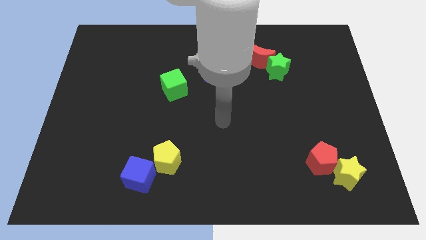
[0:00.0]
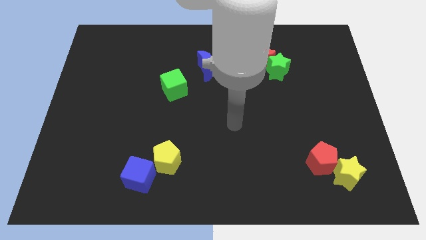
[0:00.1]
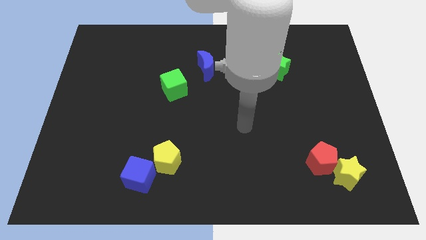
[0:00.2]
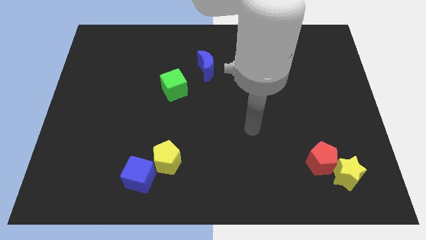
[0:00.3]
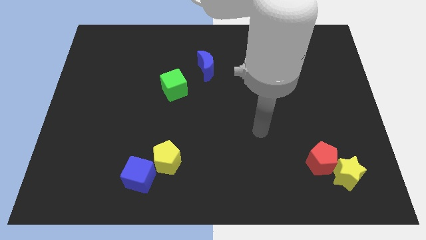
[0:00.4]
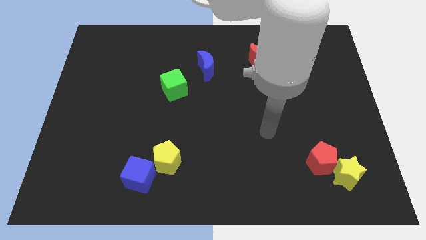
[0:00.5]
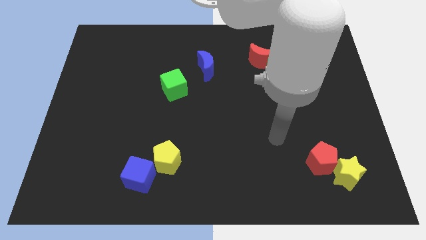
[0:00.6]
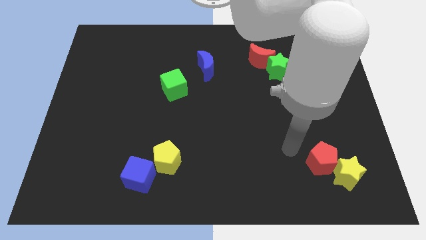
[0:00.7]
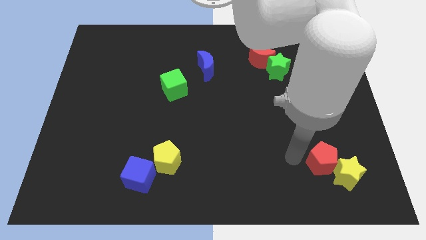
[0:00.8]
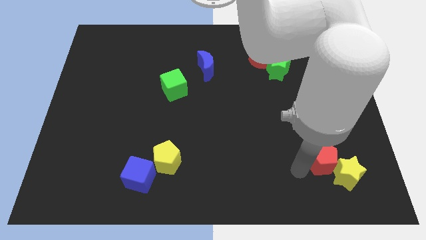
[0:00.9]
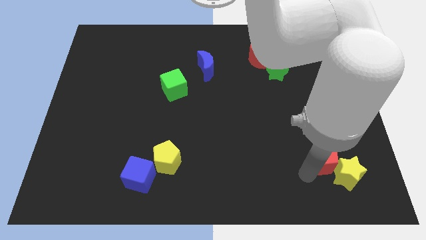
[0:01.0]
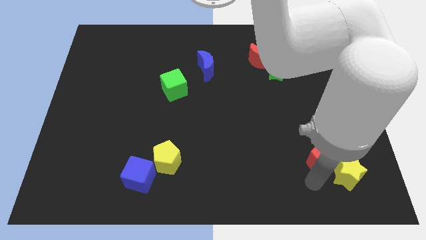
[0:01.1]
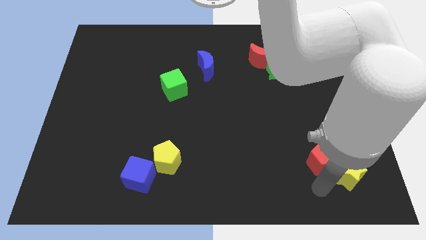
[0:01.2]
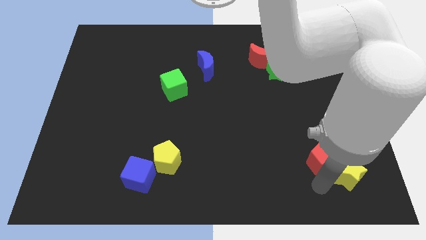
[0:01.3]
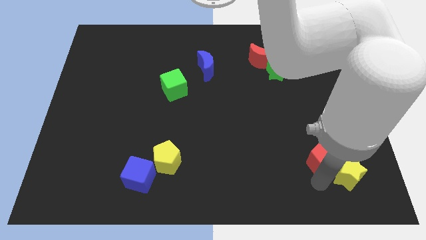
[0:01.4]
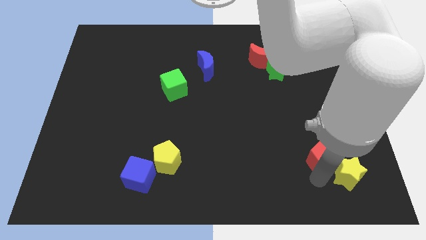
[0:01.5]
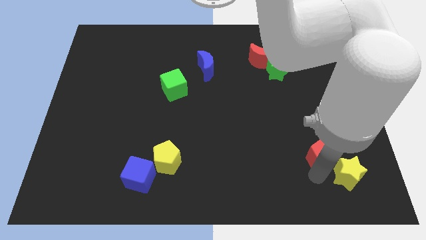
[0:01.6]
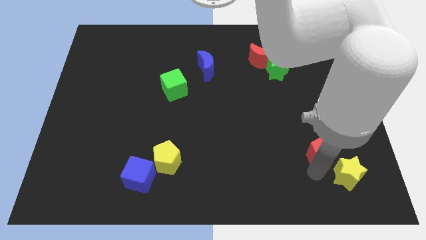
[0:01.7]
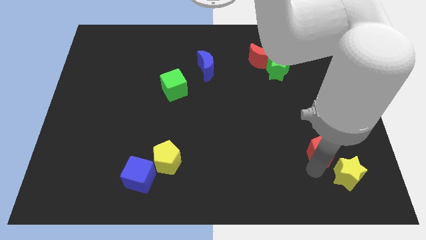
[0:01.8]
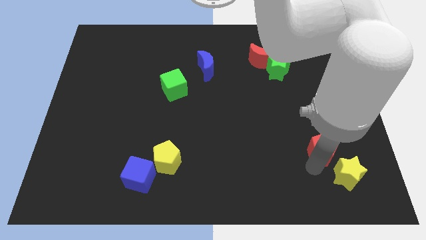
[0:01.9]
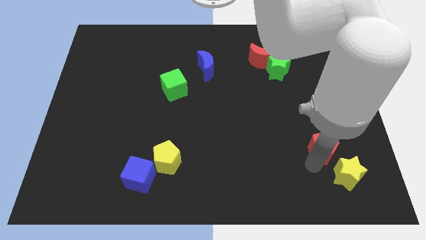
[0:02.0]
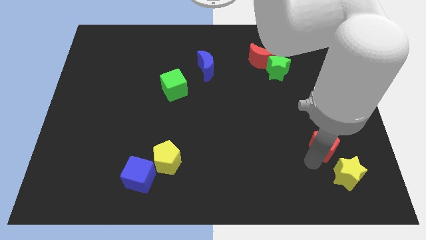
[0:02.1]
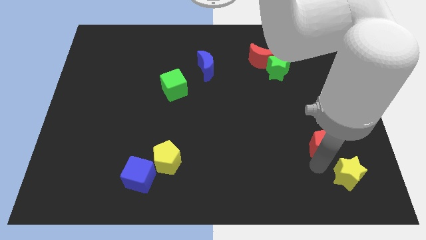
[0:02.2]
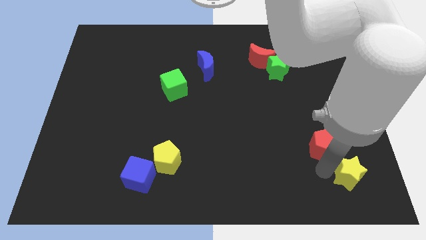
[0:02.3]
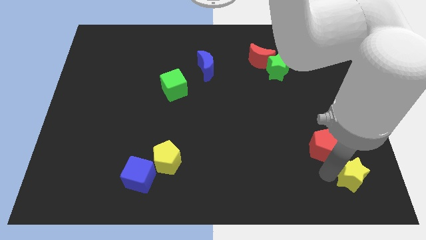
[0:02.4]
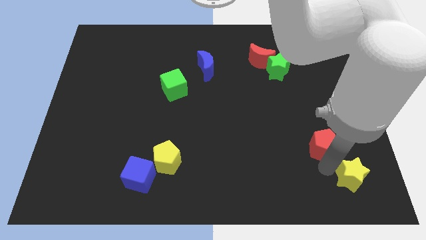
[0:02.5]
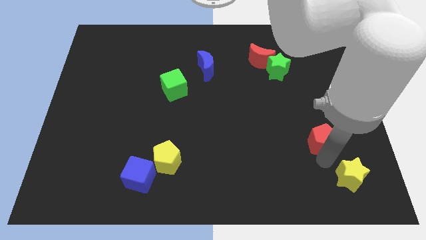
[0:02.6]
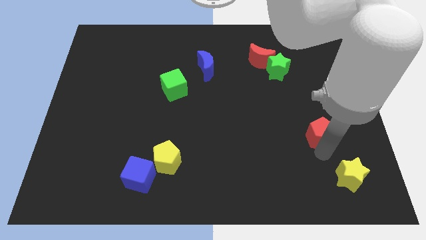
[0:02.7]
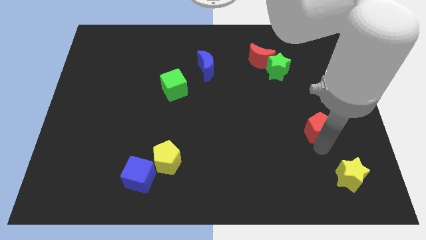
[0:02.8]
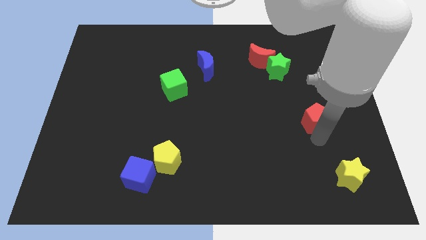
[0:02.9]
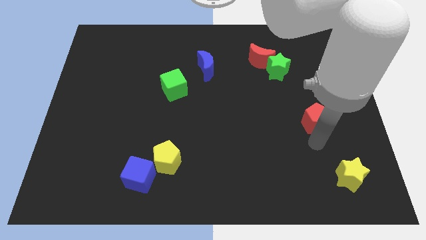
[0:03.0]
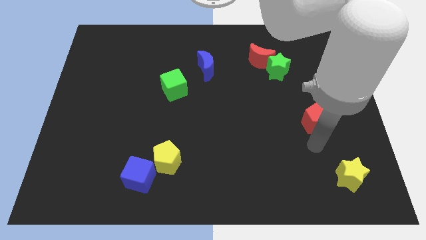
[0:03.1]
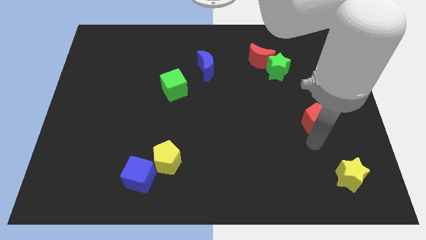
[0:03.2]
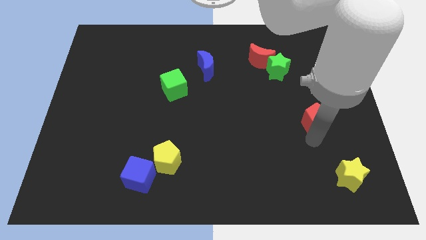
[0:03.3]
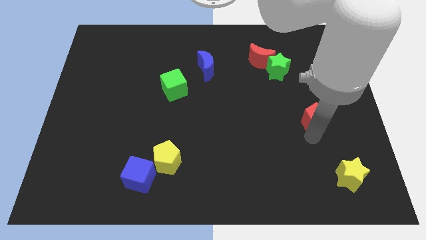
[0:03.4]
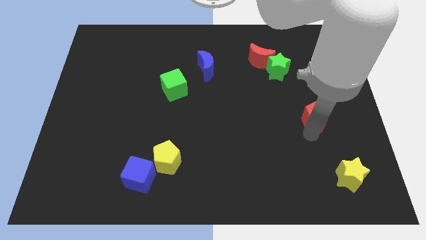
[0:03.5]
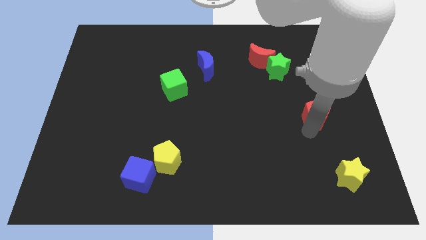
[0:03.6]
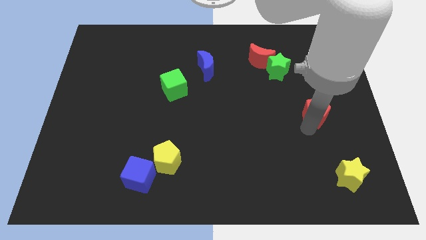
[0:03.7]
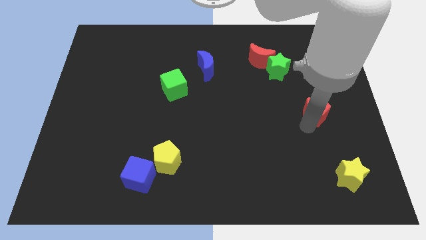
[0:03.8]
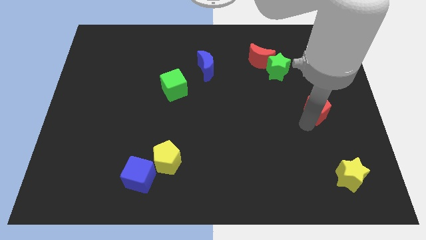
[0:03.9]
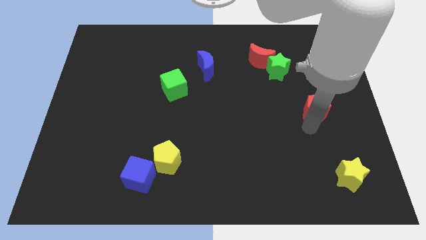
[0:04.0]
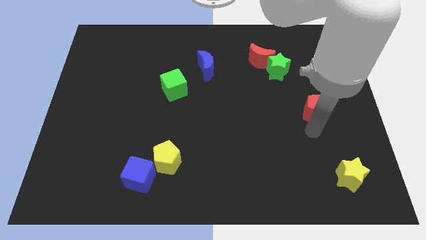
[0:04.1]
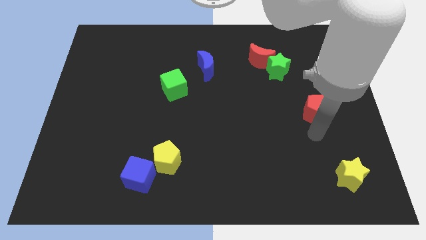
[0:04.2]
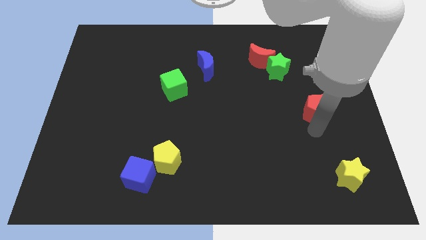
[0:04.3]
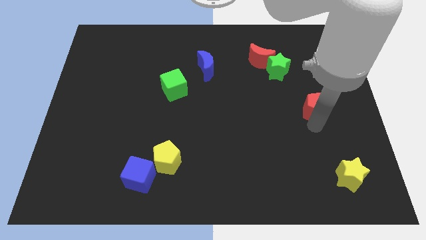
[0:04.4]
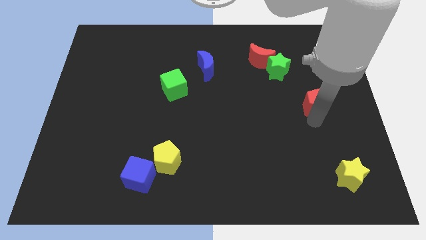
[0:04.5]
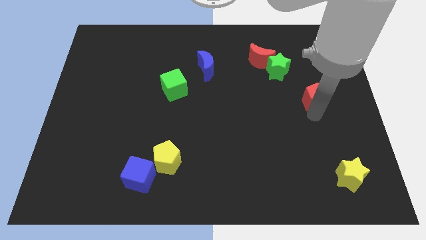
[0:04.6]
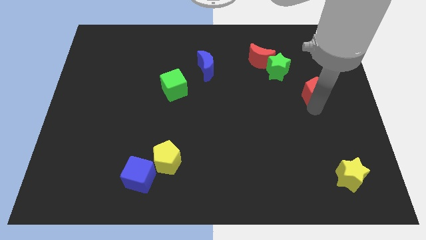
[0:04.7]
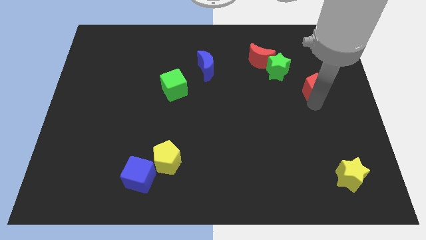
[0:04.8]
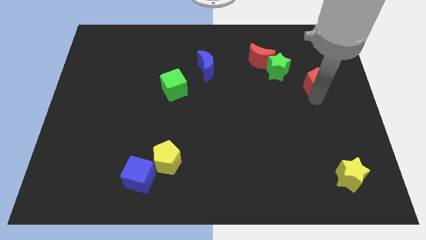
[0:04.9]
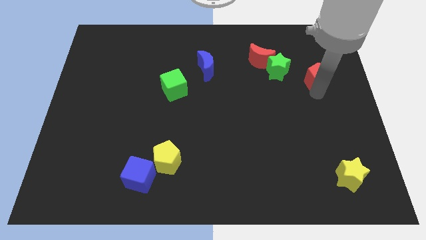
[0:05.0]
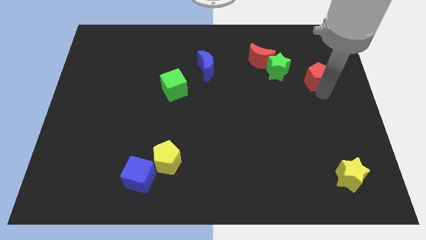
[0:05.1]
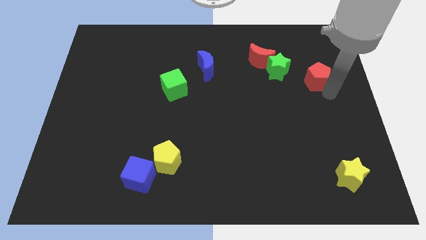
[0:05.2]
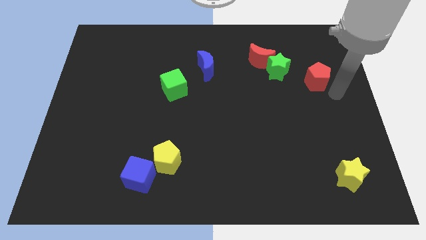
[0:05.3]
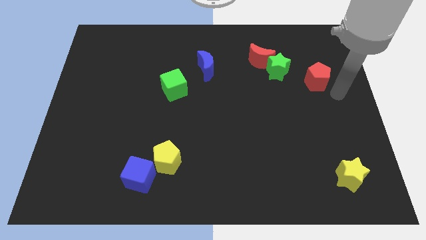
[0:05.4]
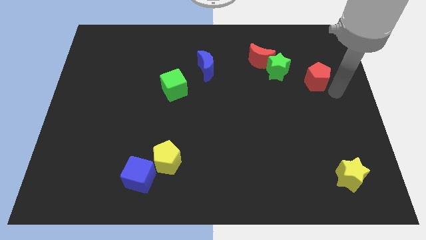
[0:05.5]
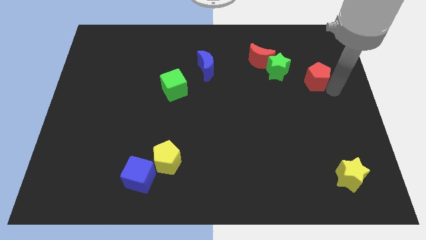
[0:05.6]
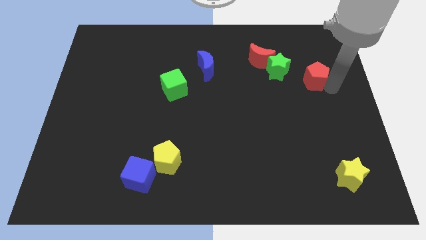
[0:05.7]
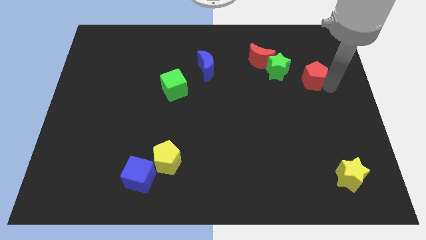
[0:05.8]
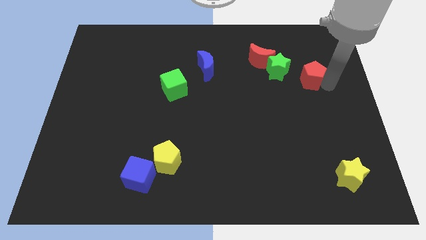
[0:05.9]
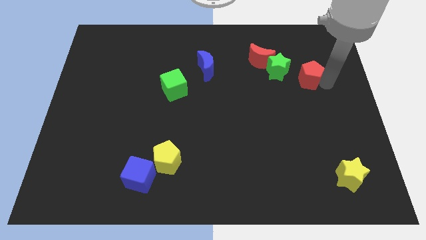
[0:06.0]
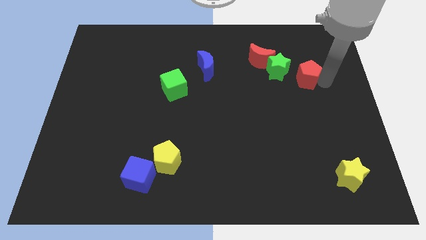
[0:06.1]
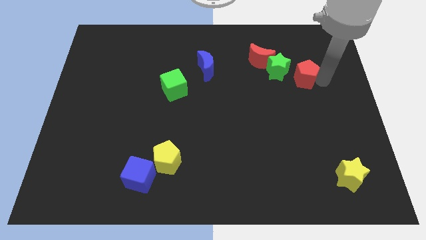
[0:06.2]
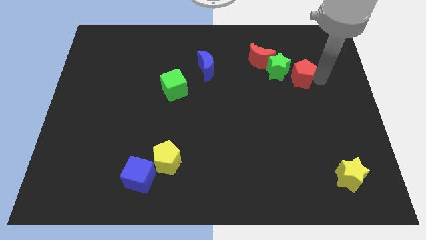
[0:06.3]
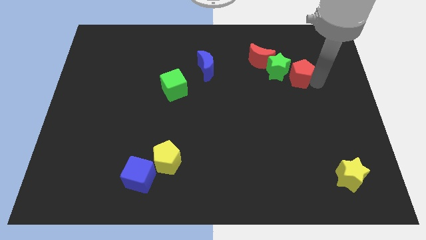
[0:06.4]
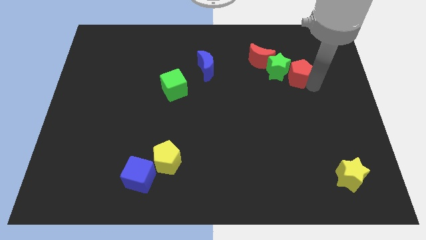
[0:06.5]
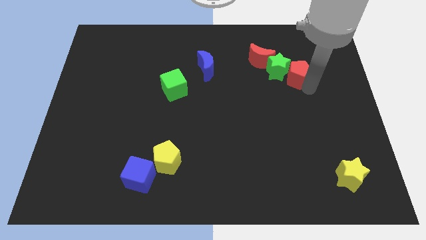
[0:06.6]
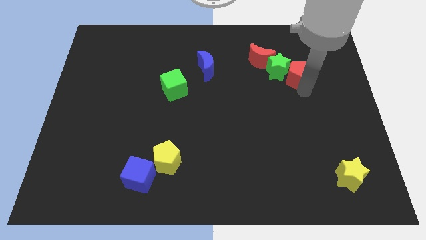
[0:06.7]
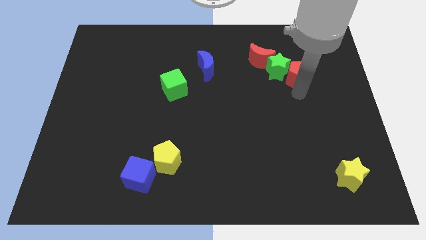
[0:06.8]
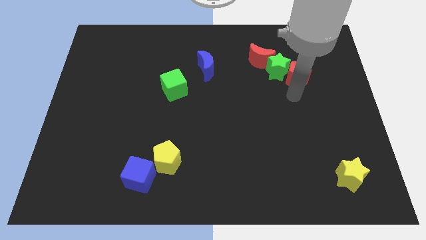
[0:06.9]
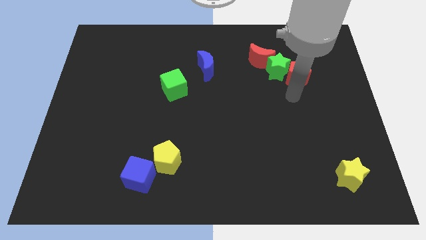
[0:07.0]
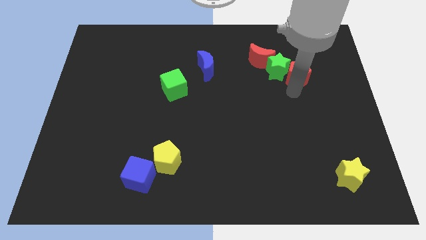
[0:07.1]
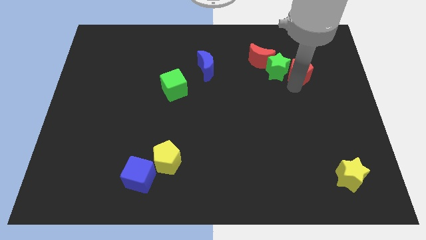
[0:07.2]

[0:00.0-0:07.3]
move the red pentagon right of the red moon
